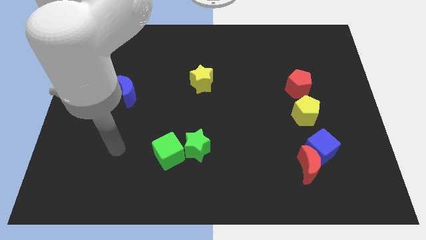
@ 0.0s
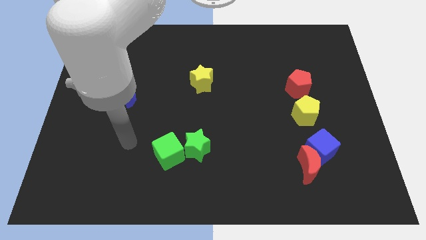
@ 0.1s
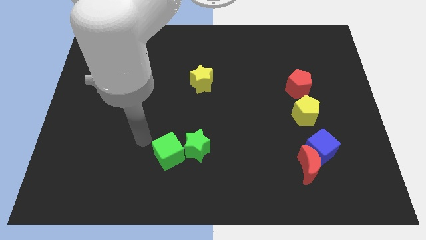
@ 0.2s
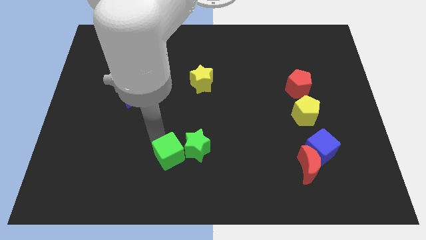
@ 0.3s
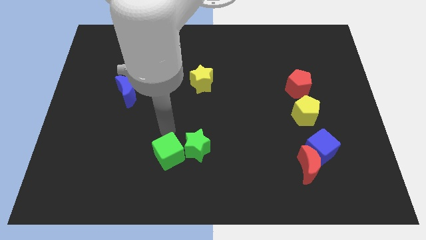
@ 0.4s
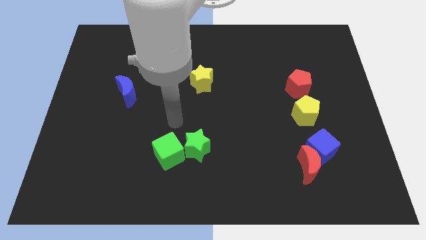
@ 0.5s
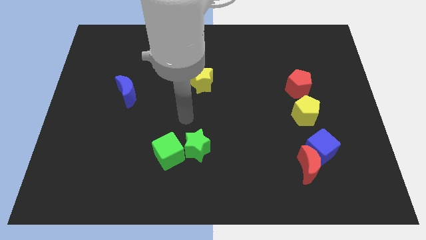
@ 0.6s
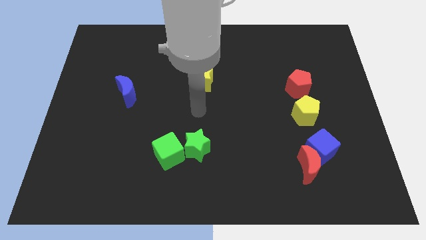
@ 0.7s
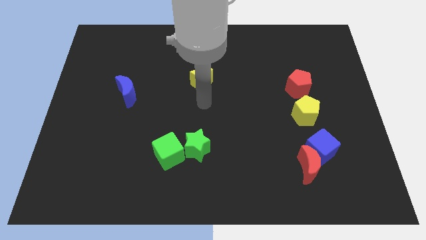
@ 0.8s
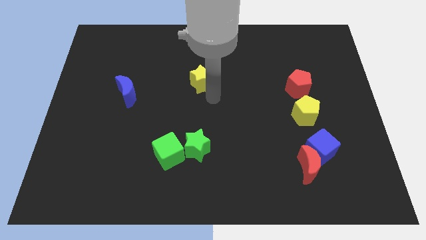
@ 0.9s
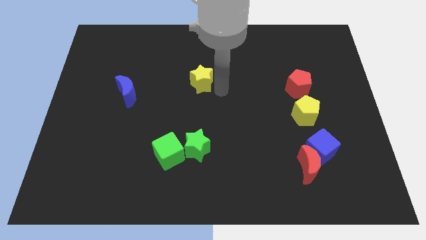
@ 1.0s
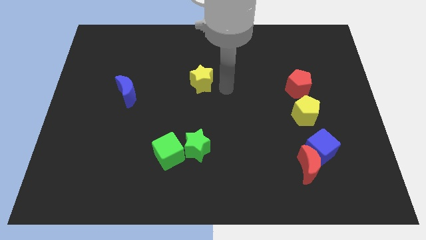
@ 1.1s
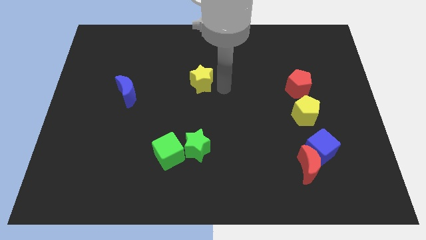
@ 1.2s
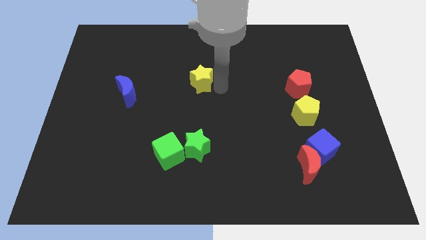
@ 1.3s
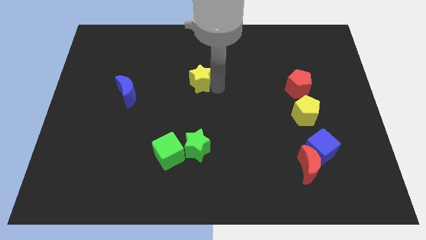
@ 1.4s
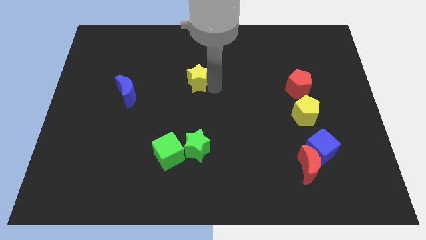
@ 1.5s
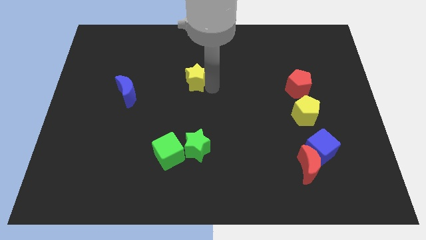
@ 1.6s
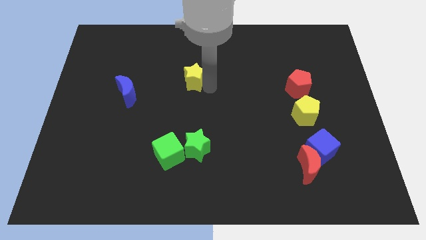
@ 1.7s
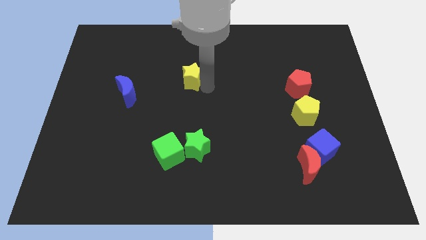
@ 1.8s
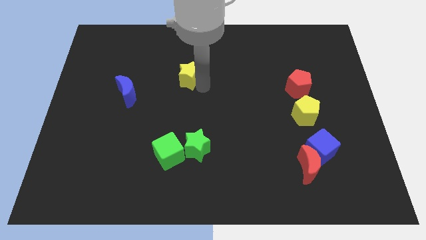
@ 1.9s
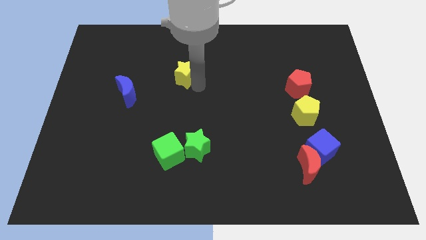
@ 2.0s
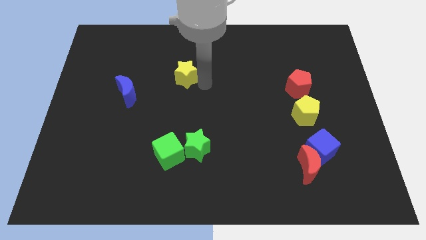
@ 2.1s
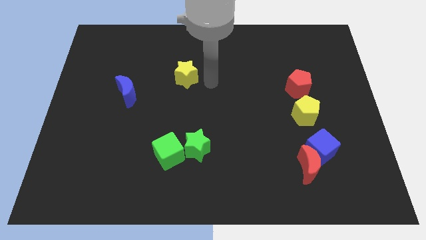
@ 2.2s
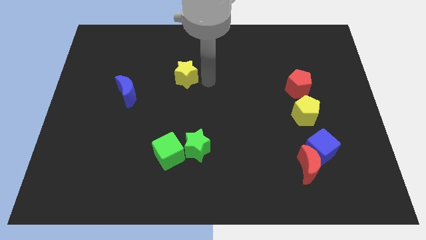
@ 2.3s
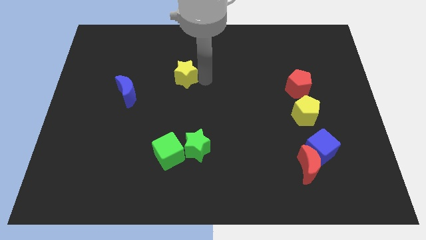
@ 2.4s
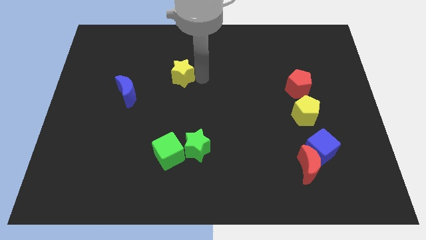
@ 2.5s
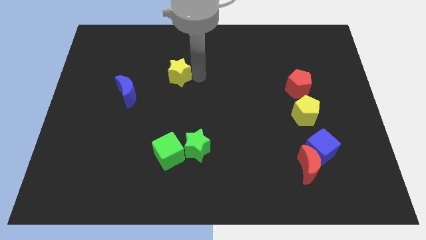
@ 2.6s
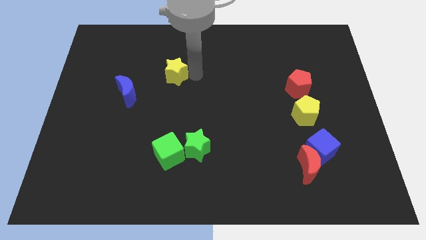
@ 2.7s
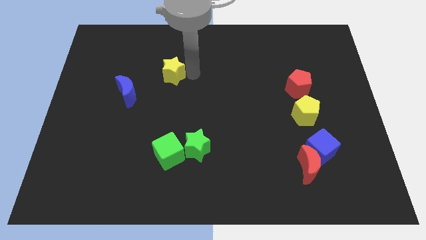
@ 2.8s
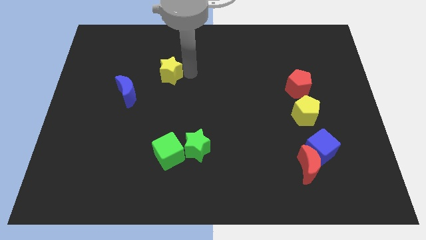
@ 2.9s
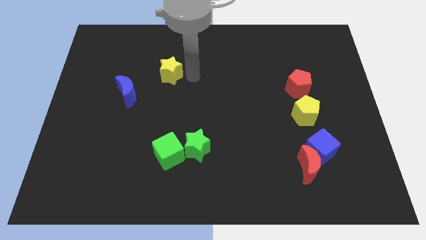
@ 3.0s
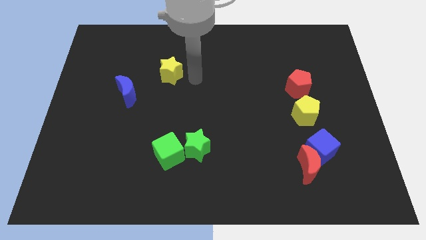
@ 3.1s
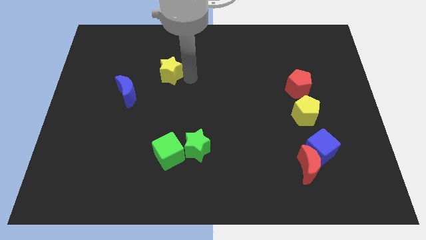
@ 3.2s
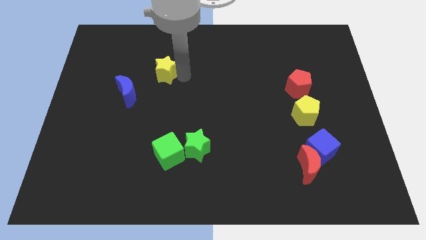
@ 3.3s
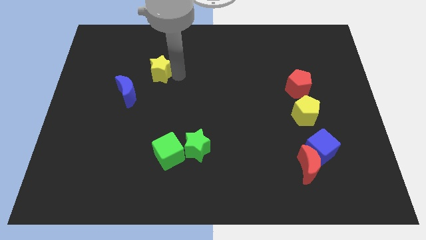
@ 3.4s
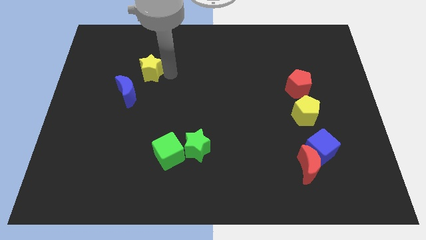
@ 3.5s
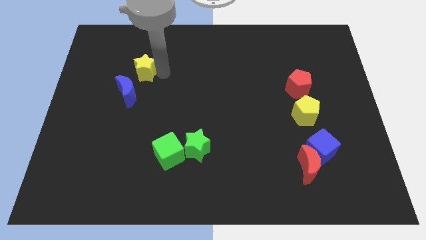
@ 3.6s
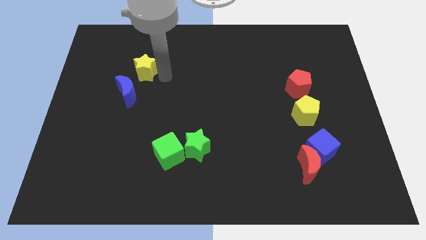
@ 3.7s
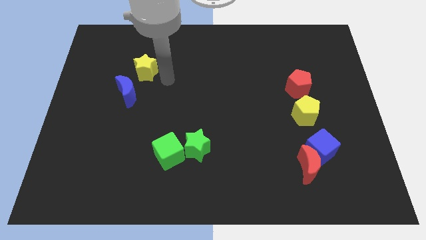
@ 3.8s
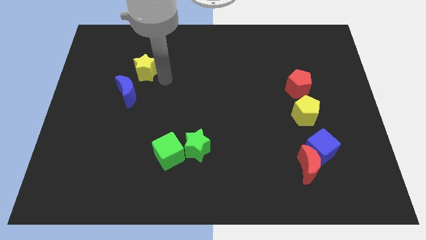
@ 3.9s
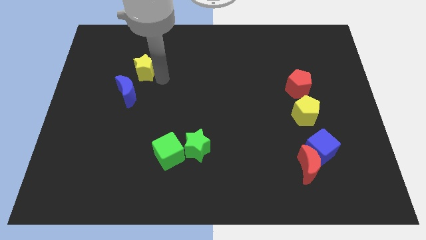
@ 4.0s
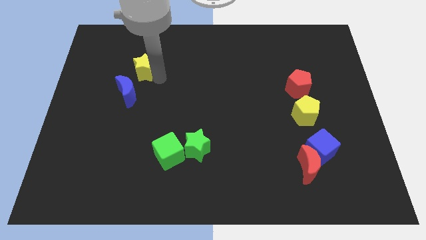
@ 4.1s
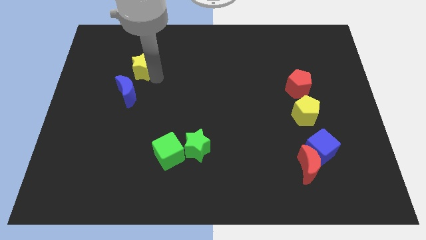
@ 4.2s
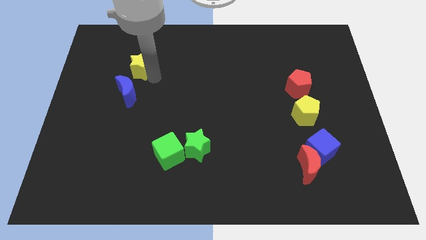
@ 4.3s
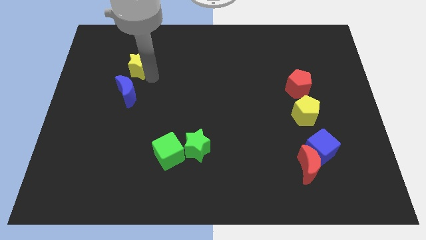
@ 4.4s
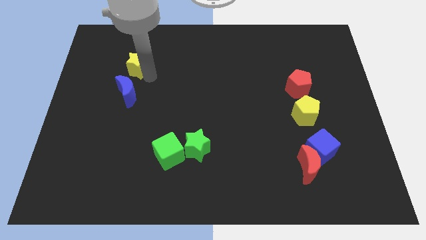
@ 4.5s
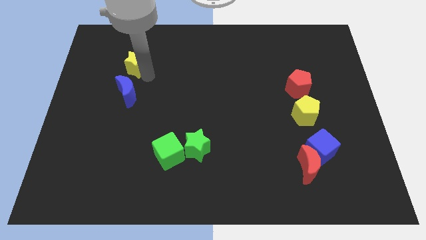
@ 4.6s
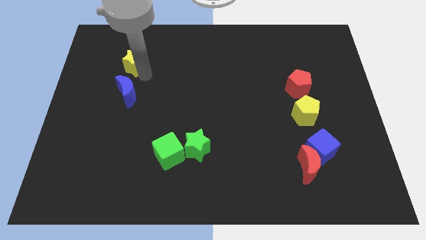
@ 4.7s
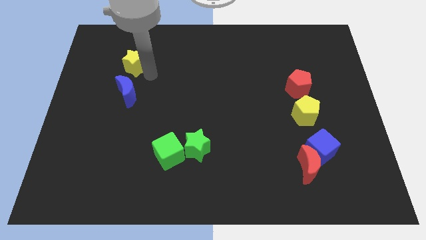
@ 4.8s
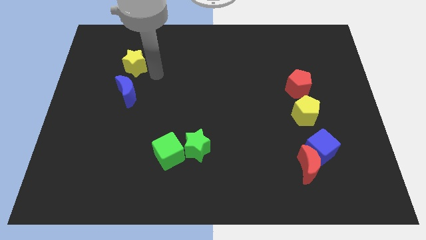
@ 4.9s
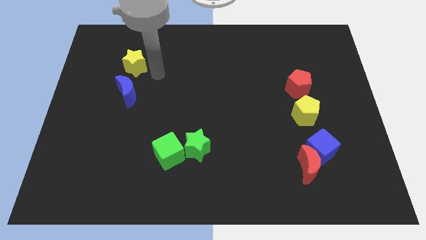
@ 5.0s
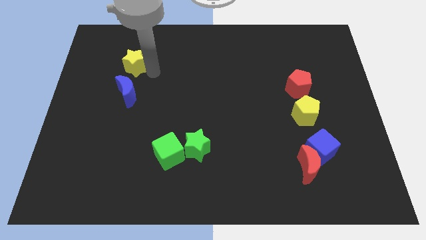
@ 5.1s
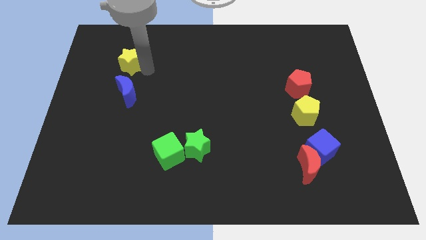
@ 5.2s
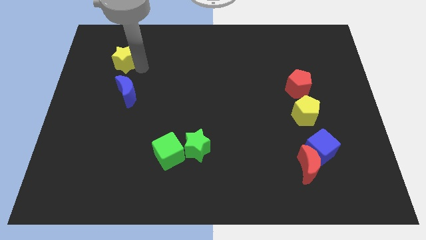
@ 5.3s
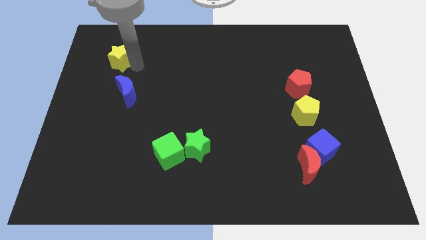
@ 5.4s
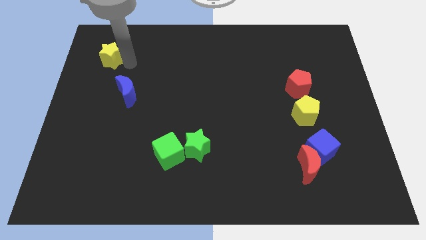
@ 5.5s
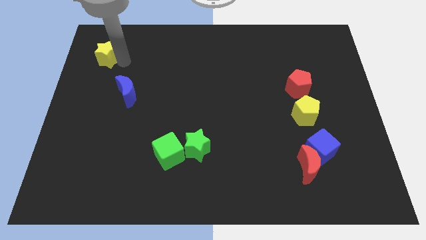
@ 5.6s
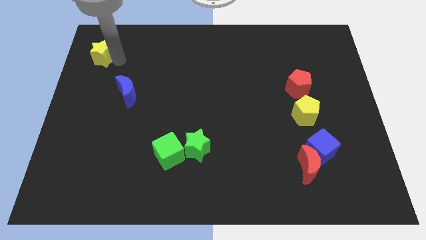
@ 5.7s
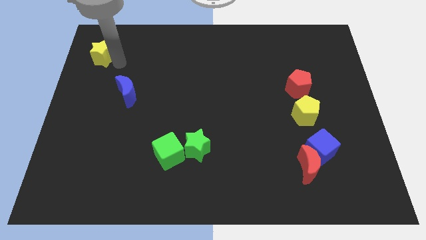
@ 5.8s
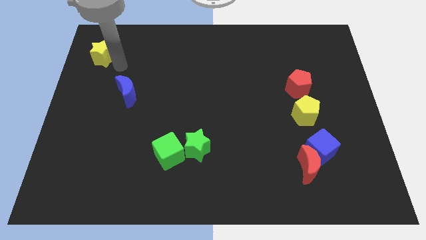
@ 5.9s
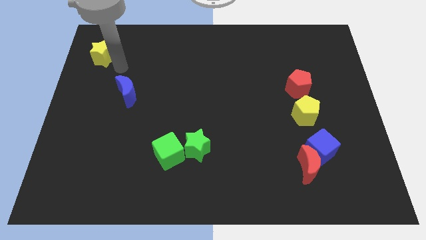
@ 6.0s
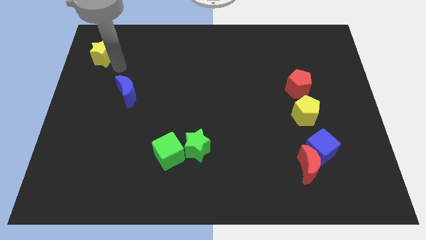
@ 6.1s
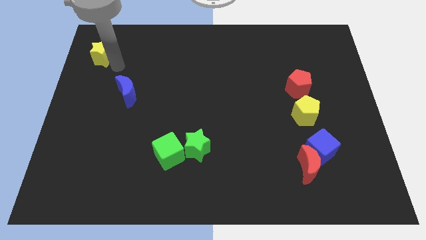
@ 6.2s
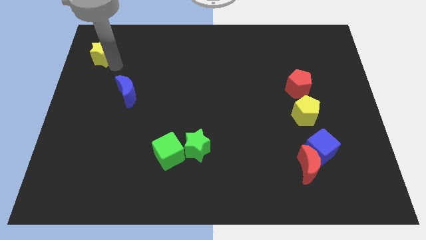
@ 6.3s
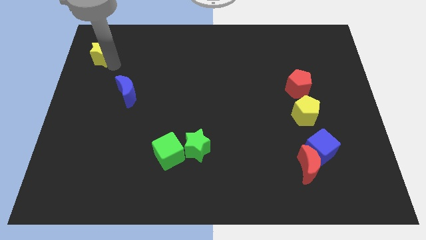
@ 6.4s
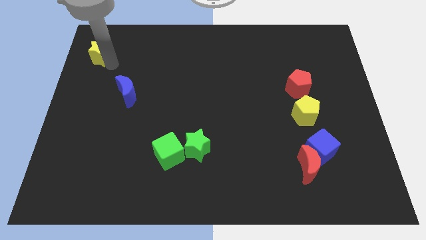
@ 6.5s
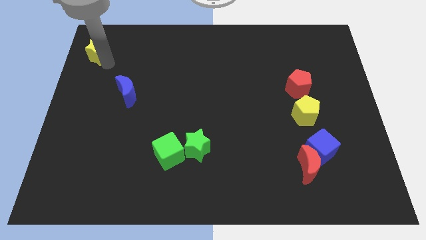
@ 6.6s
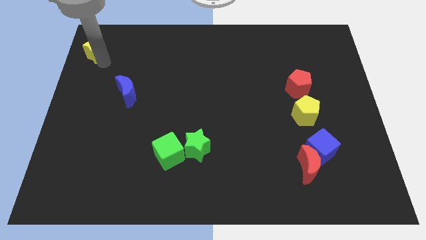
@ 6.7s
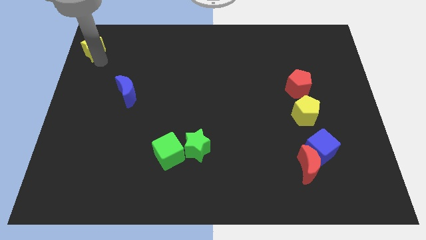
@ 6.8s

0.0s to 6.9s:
slide the yellow star to the top left

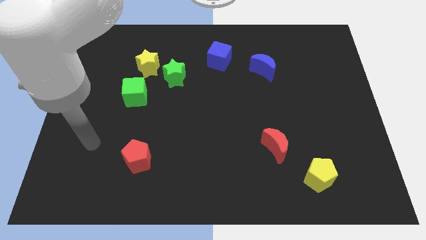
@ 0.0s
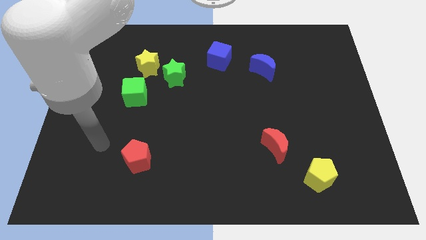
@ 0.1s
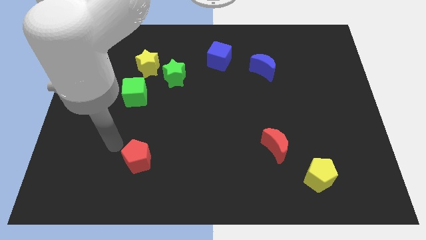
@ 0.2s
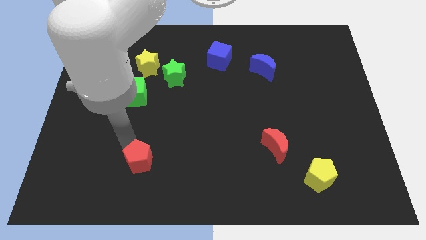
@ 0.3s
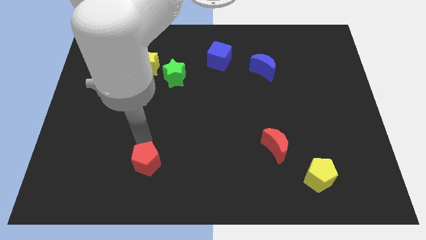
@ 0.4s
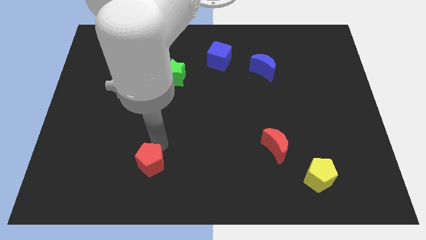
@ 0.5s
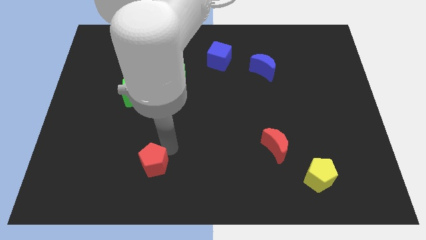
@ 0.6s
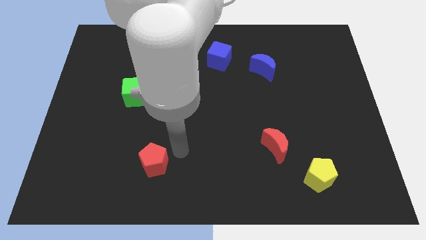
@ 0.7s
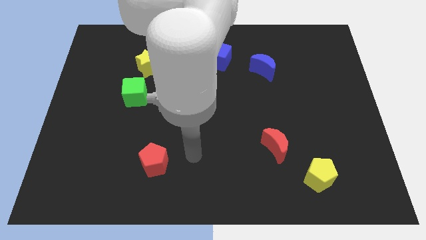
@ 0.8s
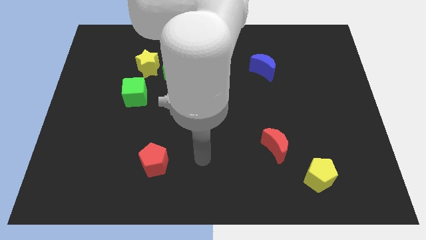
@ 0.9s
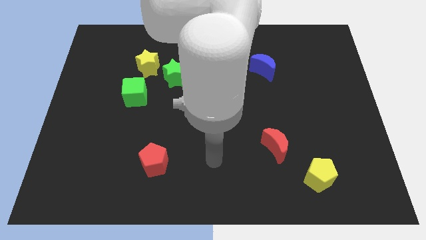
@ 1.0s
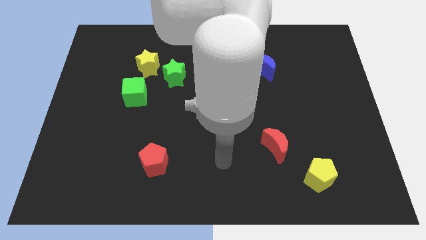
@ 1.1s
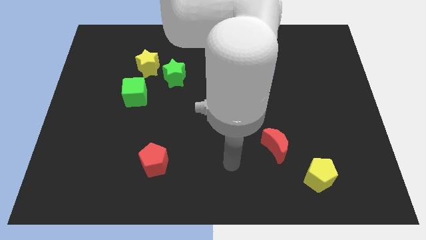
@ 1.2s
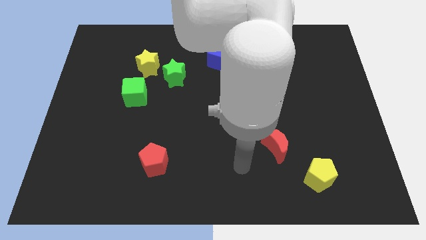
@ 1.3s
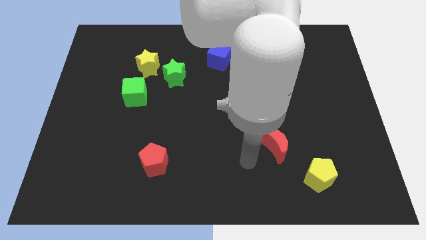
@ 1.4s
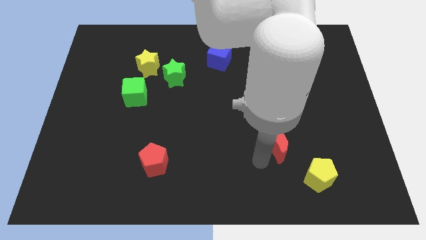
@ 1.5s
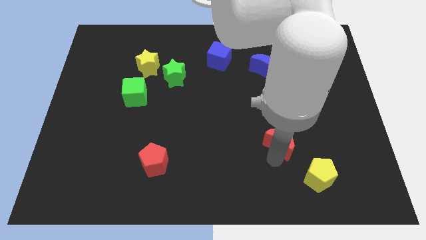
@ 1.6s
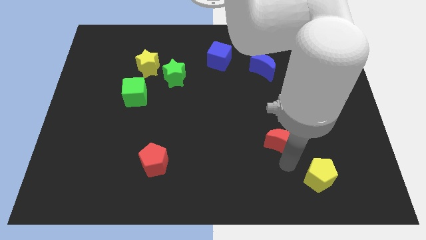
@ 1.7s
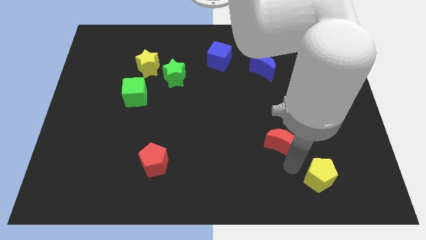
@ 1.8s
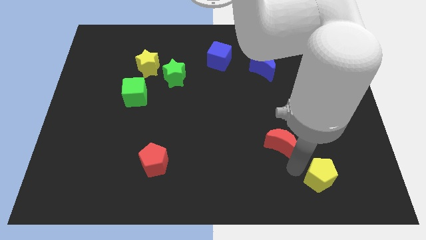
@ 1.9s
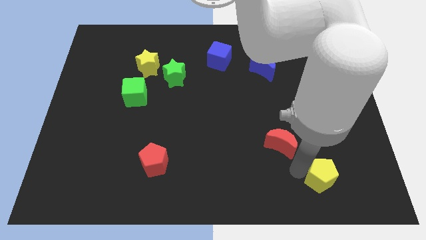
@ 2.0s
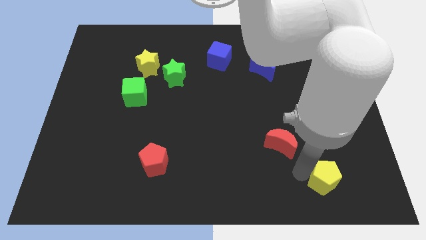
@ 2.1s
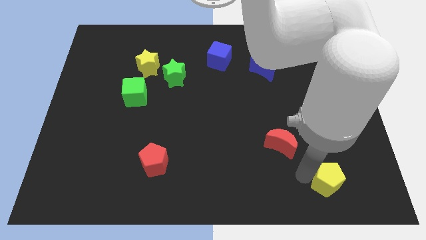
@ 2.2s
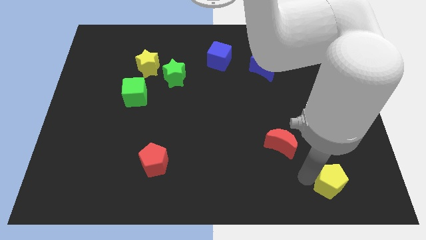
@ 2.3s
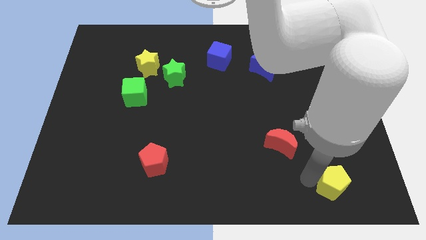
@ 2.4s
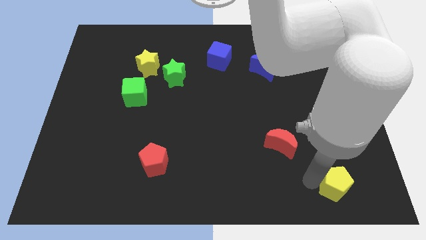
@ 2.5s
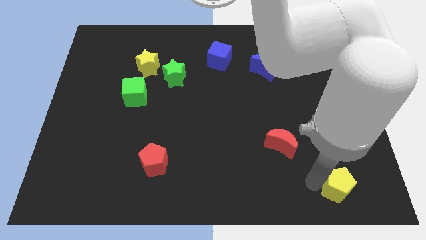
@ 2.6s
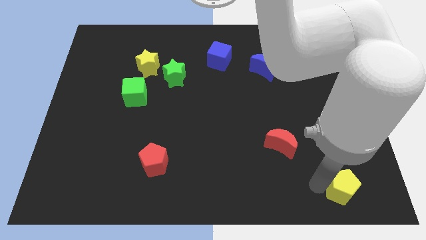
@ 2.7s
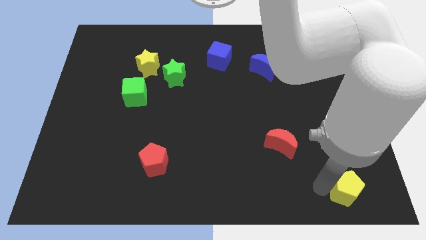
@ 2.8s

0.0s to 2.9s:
put the yellow pentagon to the bottom right
